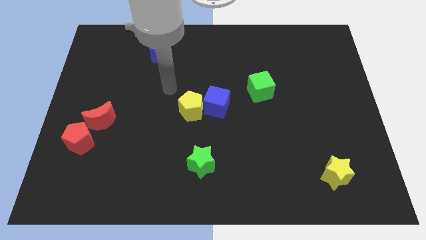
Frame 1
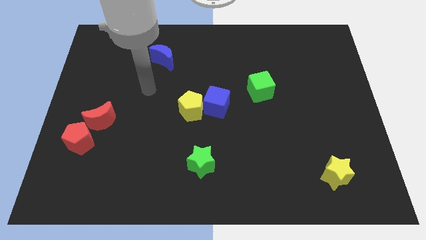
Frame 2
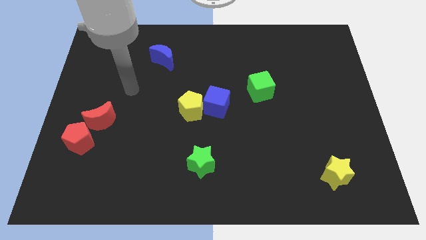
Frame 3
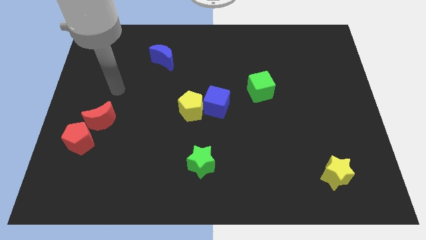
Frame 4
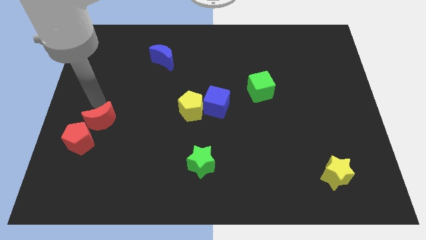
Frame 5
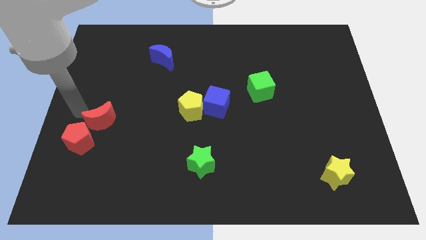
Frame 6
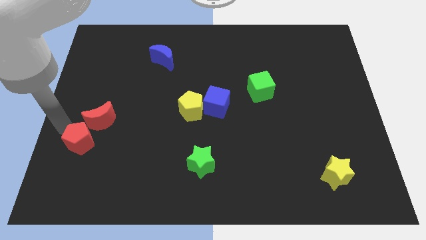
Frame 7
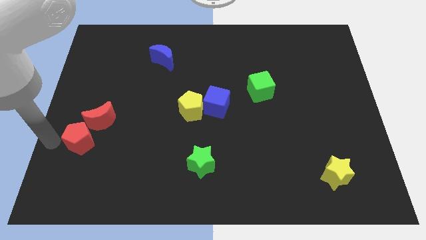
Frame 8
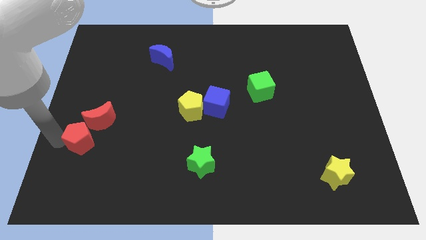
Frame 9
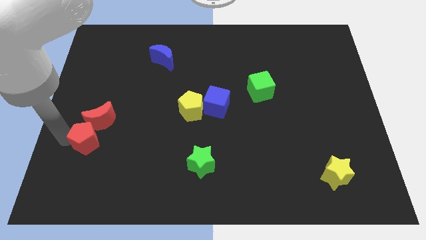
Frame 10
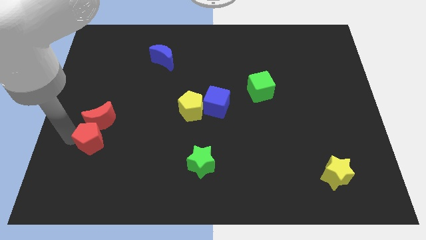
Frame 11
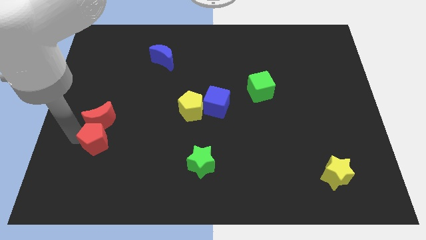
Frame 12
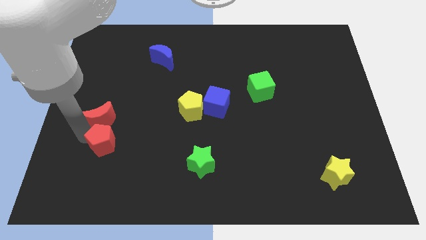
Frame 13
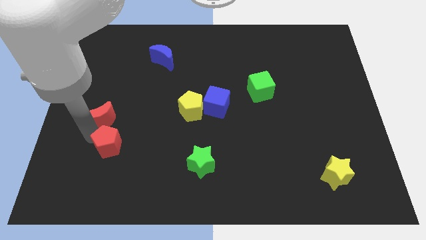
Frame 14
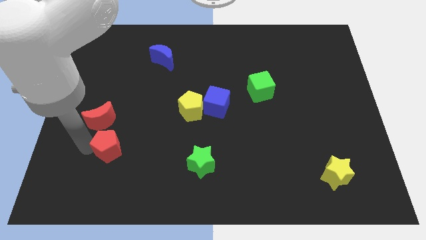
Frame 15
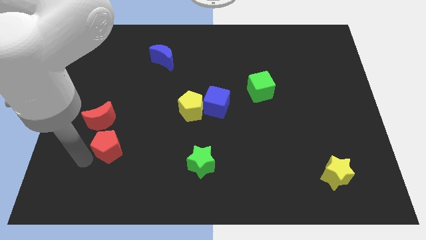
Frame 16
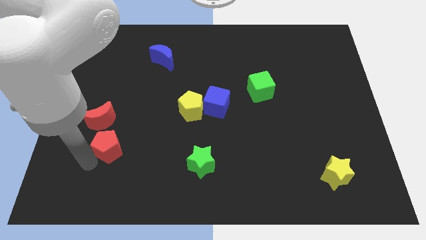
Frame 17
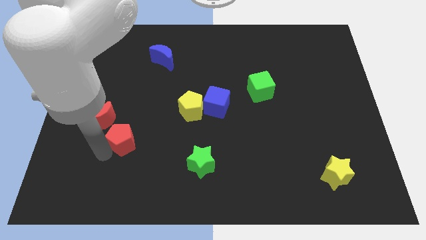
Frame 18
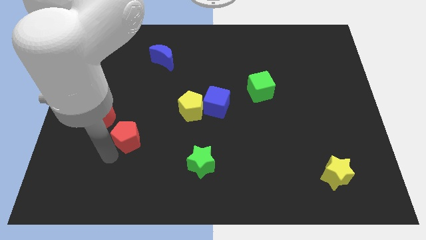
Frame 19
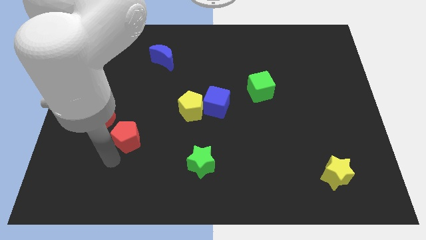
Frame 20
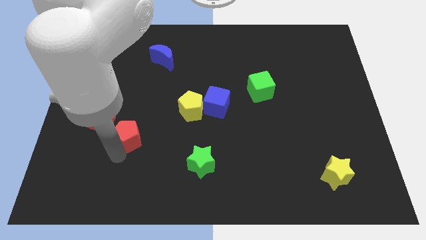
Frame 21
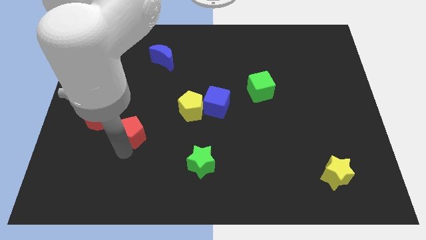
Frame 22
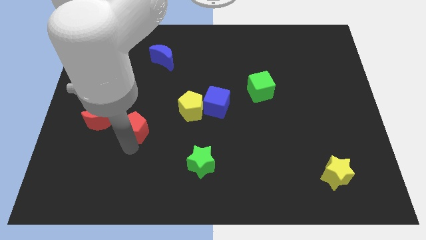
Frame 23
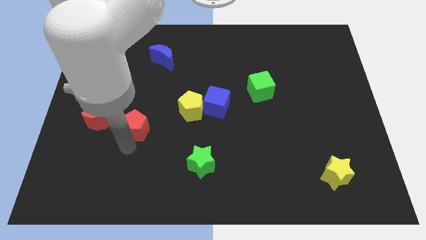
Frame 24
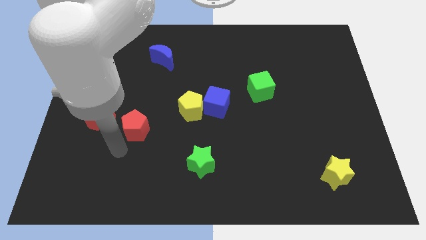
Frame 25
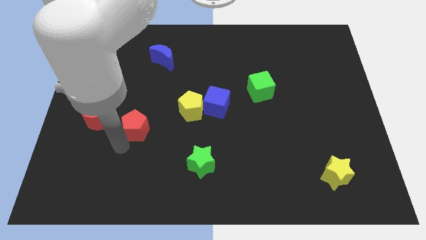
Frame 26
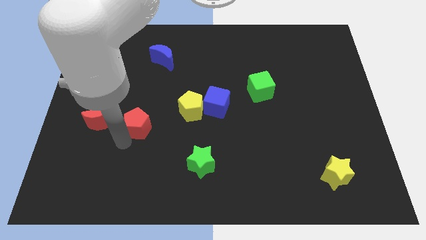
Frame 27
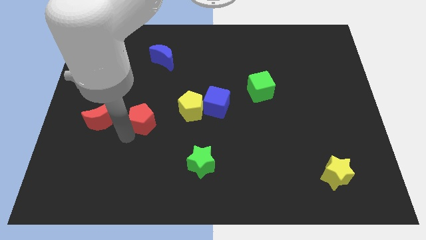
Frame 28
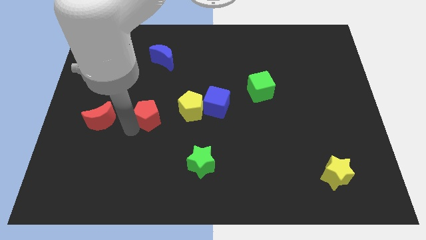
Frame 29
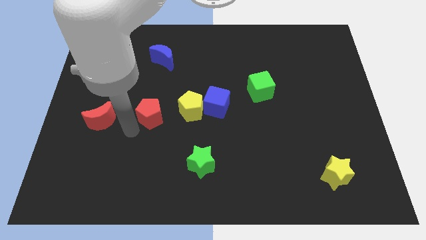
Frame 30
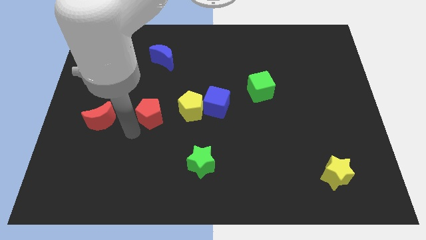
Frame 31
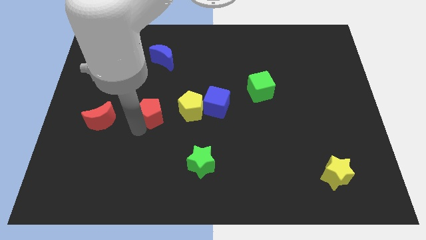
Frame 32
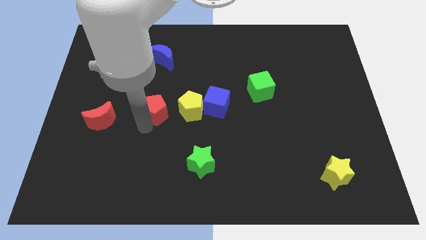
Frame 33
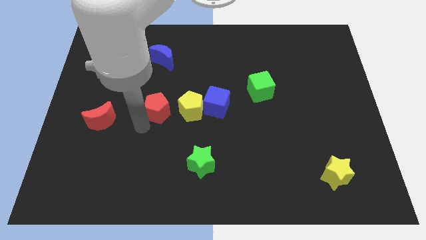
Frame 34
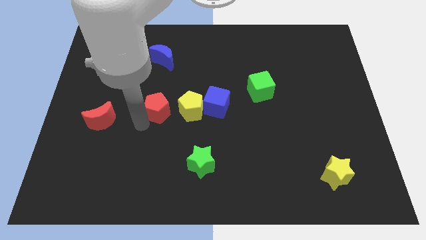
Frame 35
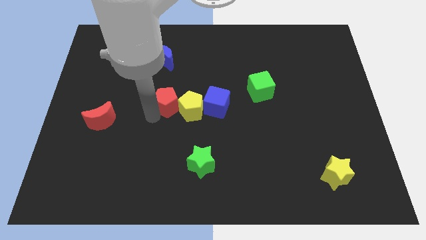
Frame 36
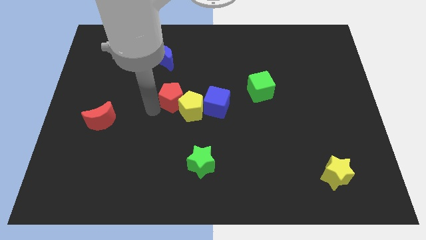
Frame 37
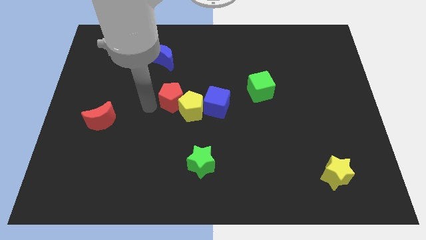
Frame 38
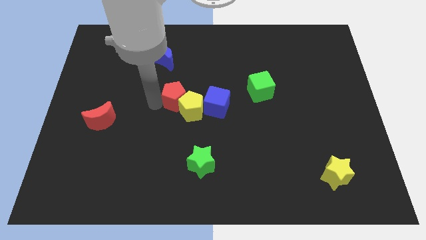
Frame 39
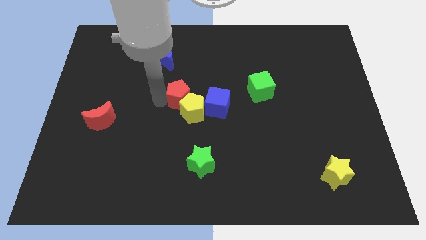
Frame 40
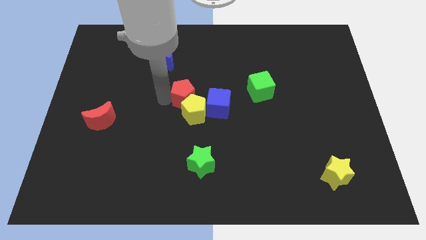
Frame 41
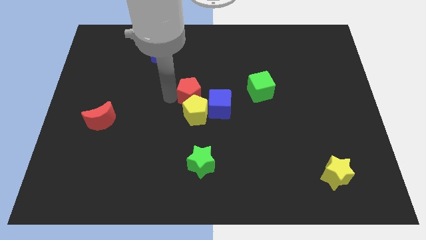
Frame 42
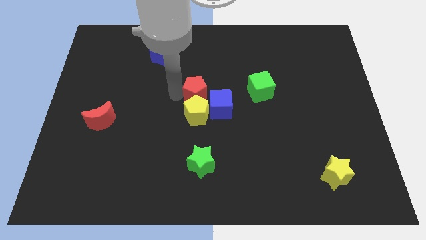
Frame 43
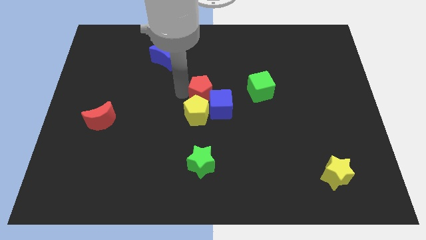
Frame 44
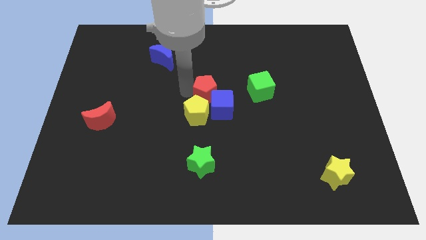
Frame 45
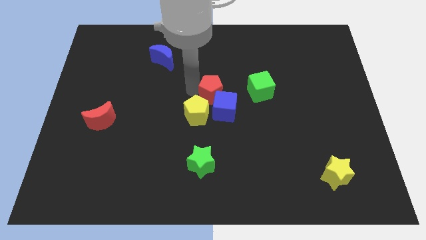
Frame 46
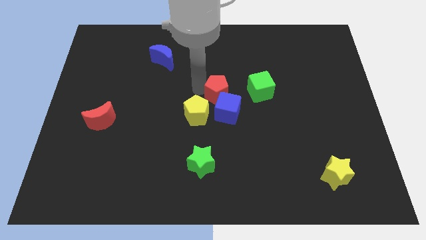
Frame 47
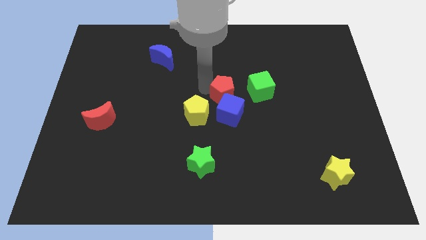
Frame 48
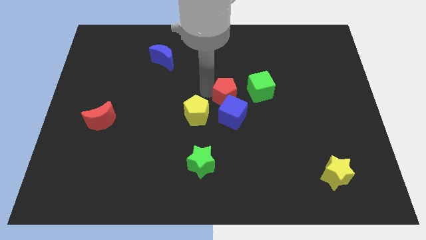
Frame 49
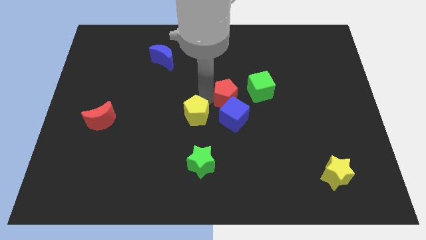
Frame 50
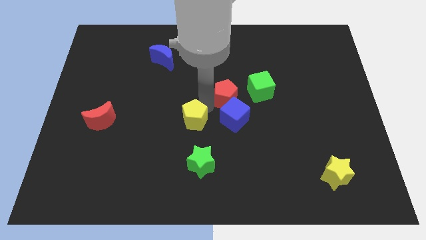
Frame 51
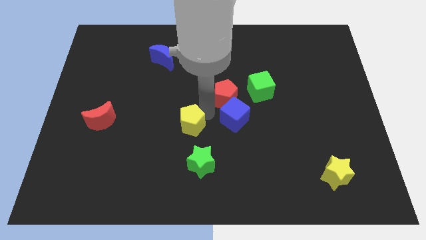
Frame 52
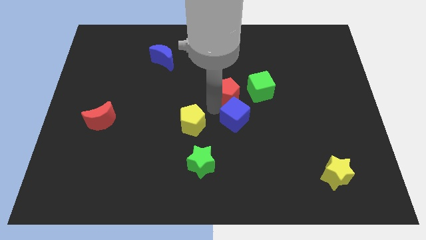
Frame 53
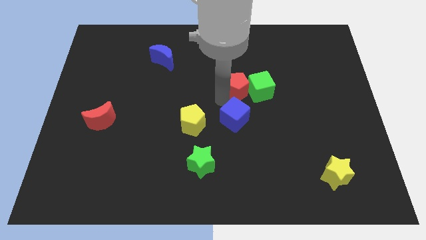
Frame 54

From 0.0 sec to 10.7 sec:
move the red pentagon next to the green cube
